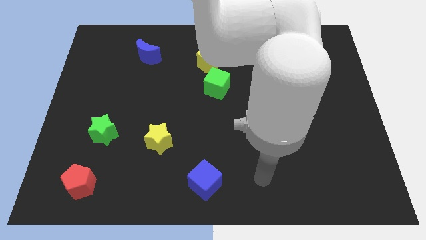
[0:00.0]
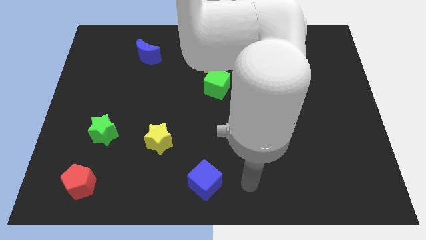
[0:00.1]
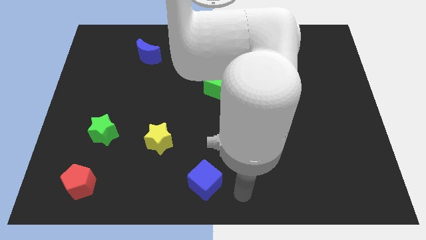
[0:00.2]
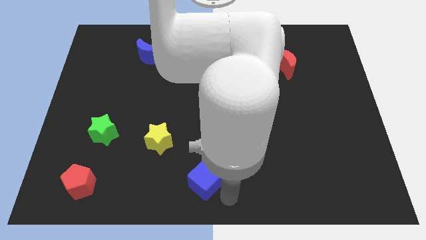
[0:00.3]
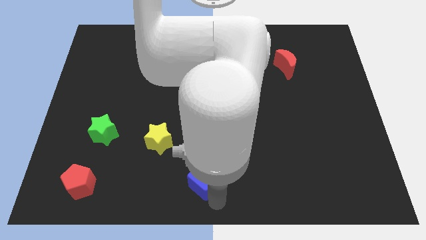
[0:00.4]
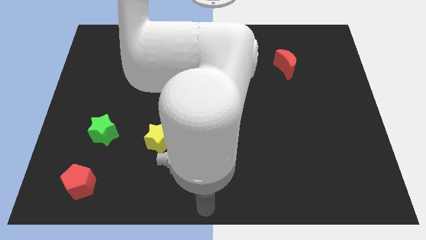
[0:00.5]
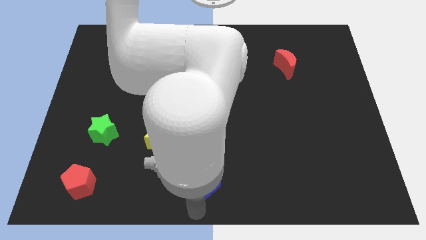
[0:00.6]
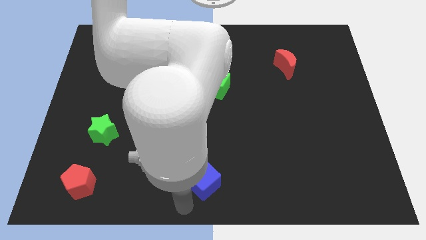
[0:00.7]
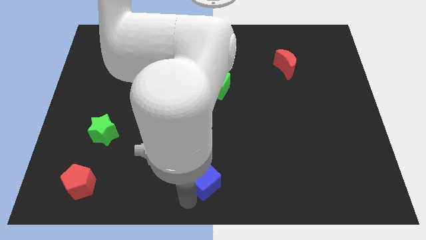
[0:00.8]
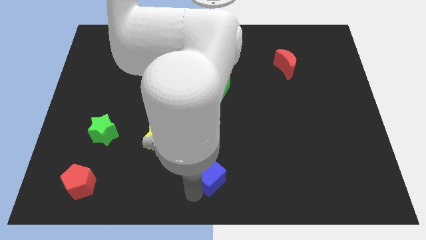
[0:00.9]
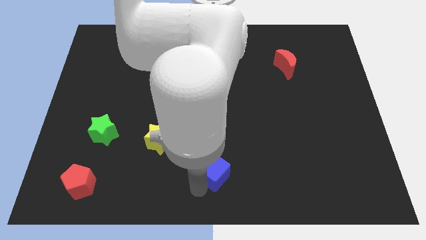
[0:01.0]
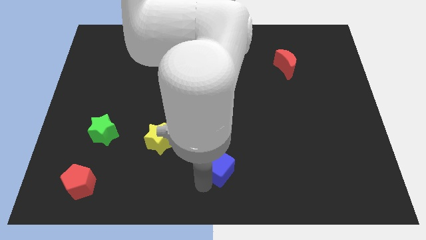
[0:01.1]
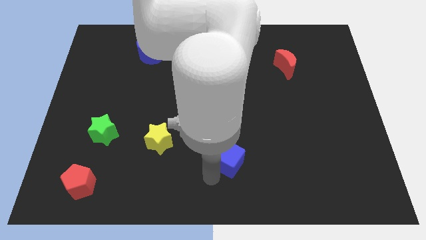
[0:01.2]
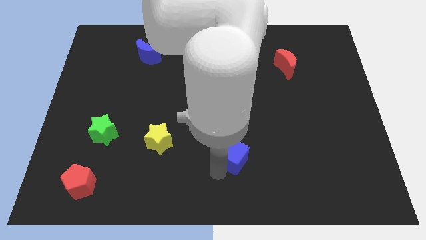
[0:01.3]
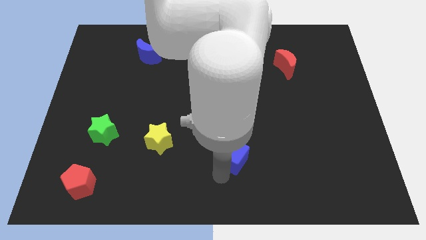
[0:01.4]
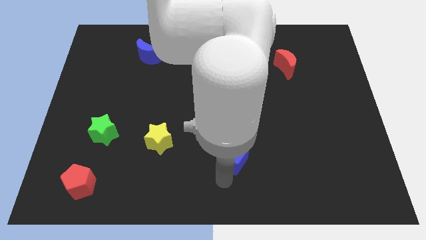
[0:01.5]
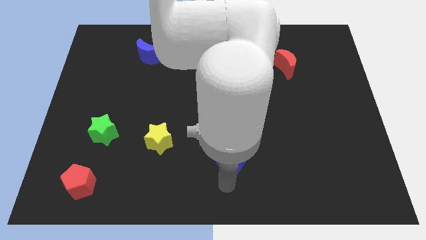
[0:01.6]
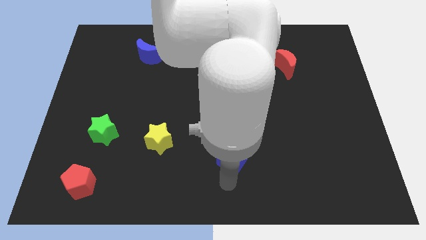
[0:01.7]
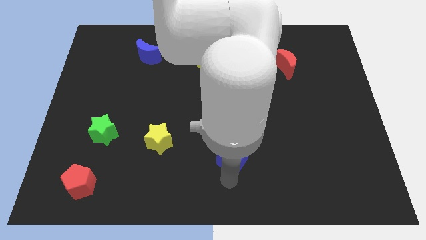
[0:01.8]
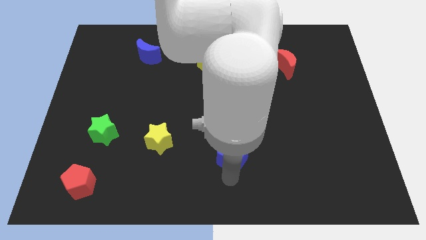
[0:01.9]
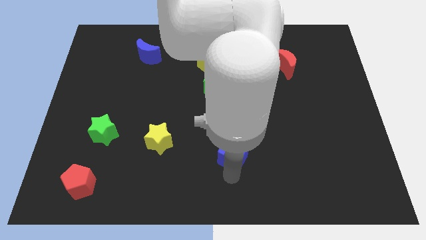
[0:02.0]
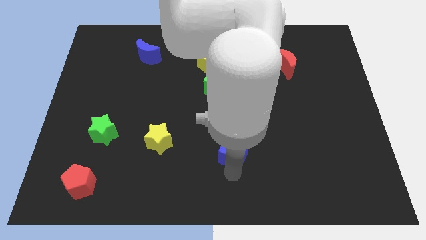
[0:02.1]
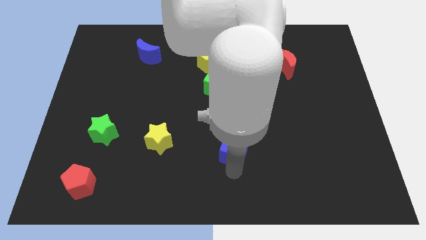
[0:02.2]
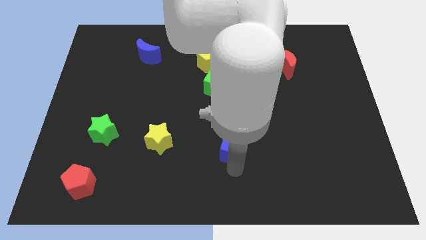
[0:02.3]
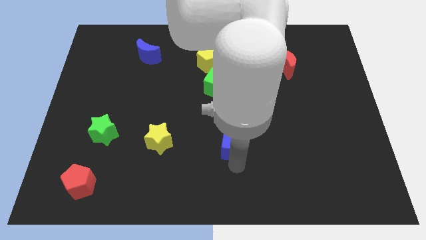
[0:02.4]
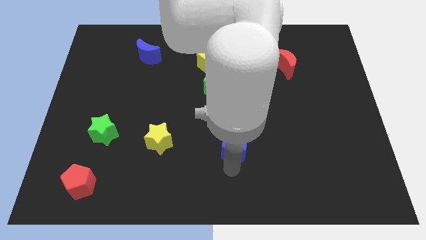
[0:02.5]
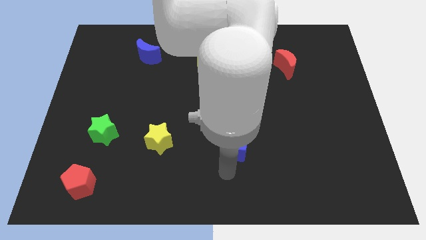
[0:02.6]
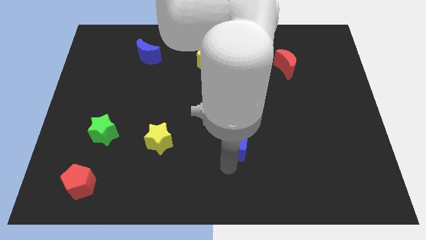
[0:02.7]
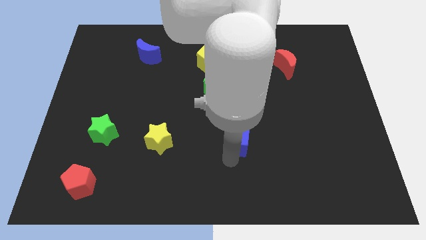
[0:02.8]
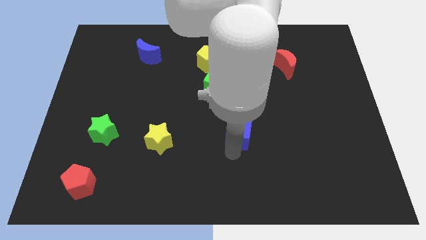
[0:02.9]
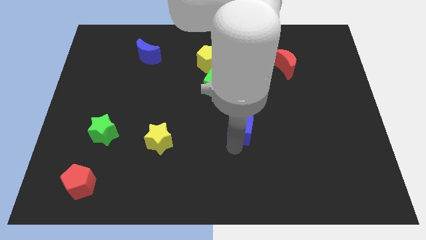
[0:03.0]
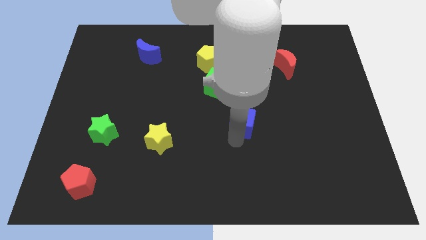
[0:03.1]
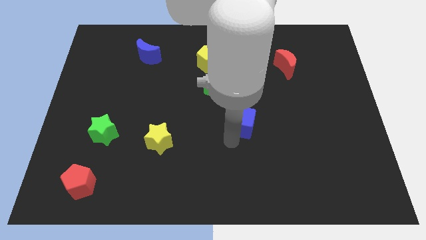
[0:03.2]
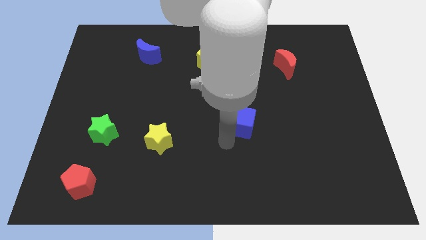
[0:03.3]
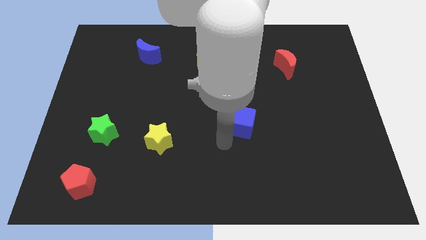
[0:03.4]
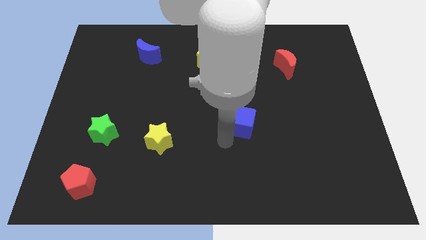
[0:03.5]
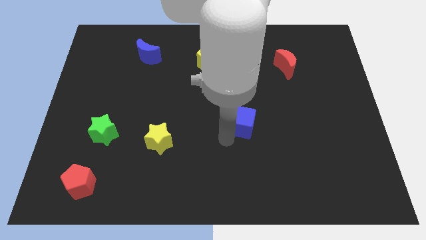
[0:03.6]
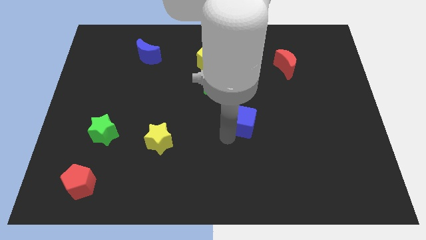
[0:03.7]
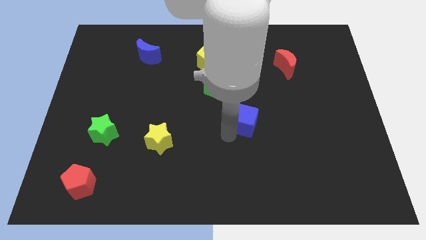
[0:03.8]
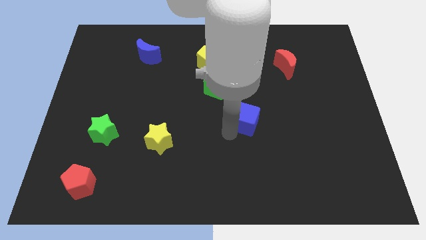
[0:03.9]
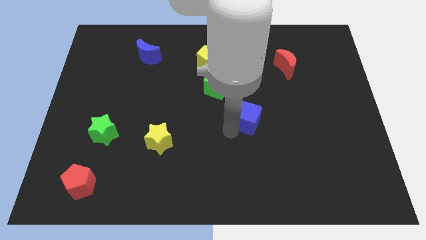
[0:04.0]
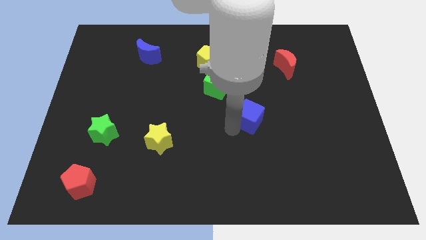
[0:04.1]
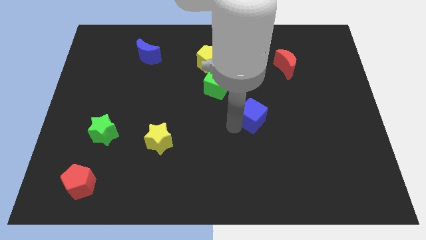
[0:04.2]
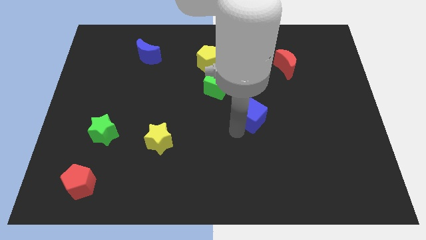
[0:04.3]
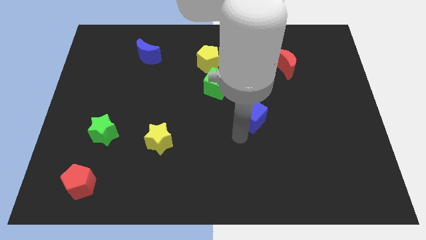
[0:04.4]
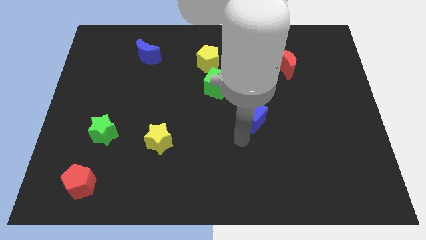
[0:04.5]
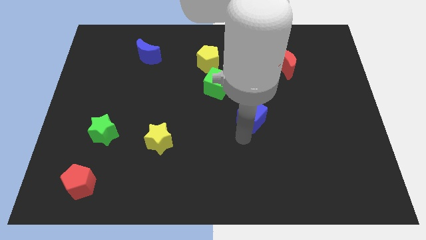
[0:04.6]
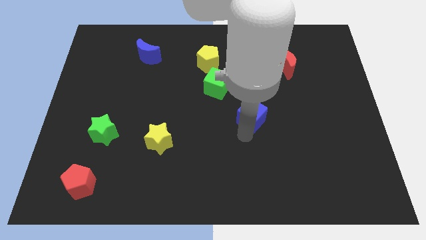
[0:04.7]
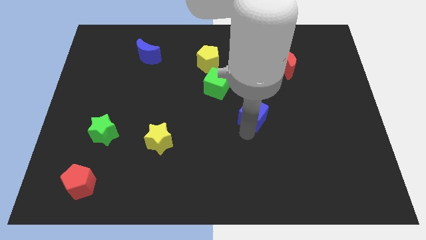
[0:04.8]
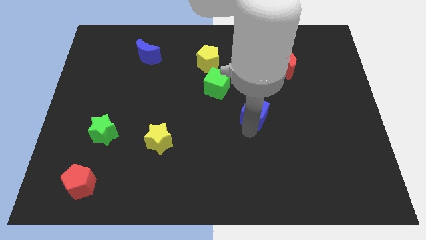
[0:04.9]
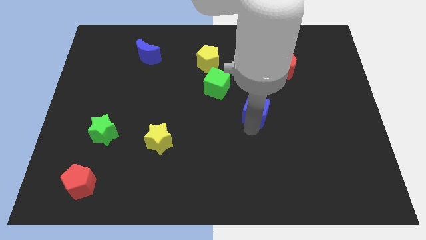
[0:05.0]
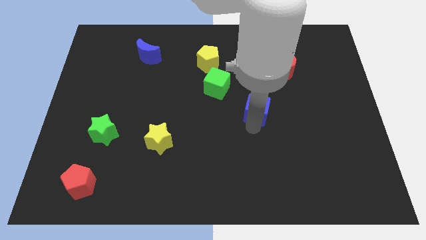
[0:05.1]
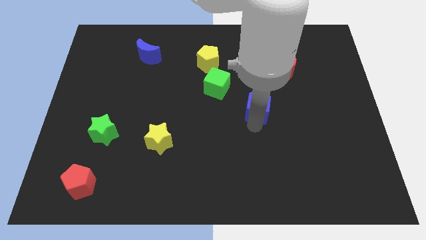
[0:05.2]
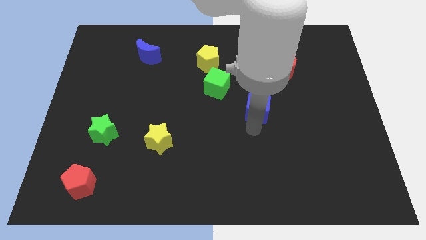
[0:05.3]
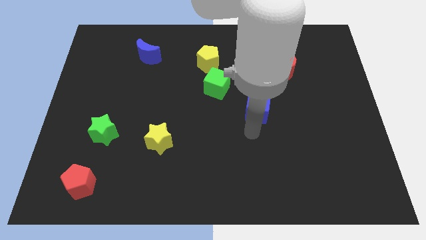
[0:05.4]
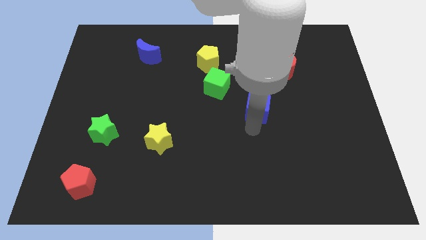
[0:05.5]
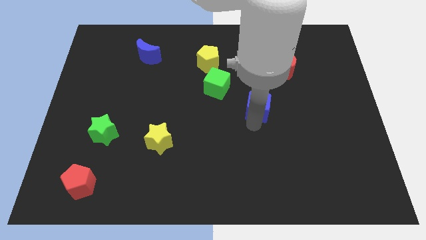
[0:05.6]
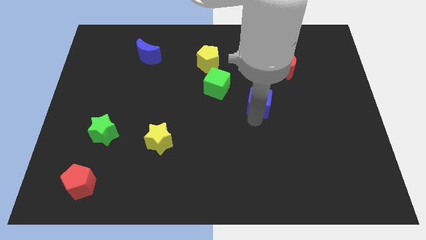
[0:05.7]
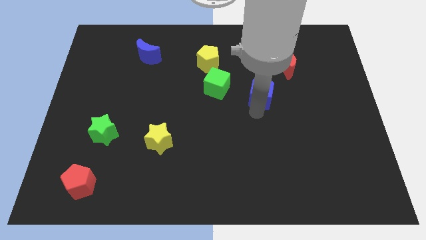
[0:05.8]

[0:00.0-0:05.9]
move the blue cube to the bottom left of the red moon

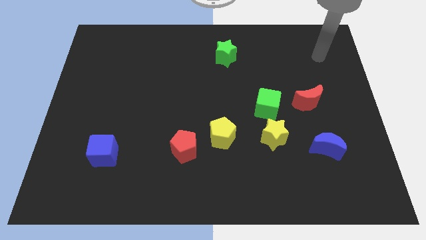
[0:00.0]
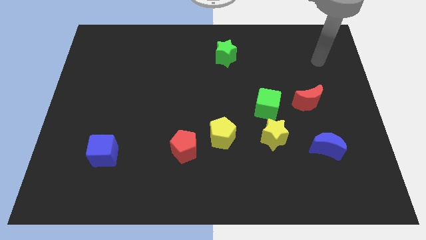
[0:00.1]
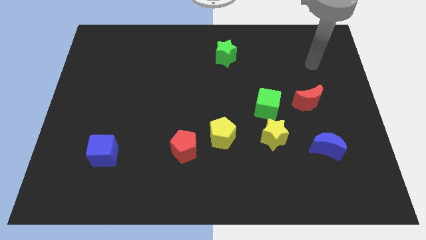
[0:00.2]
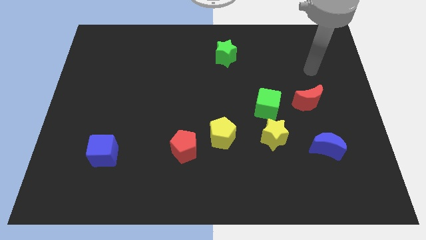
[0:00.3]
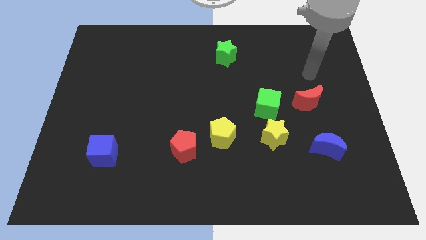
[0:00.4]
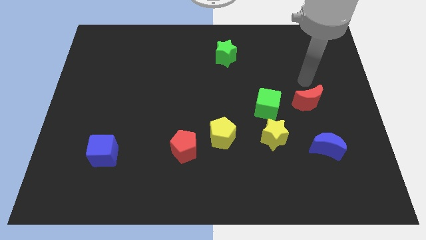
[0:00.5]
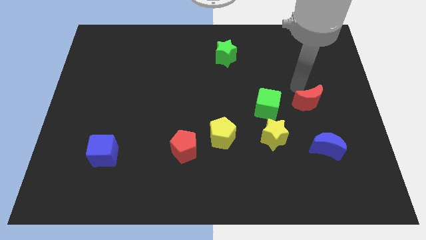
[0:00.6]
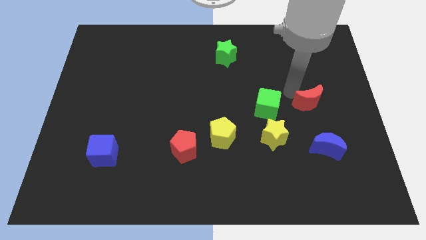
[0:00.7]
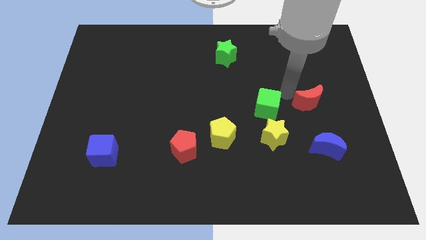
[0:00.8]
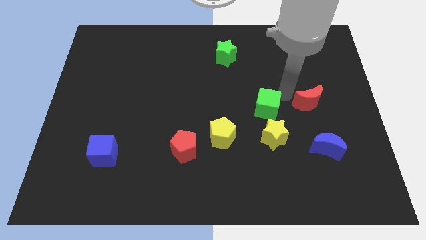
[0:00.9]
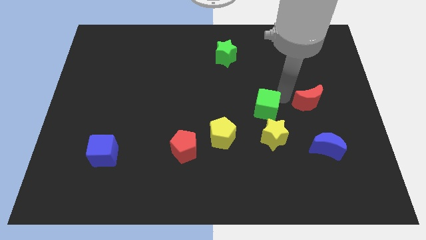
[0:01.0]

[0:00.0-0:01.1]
push the green cube to the top left side of the yellow star

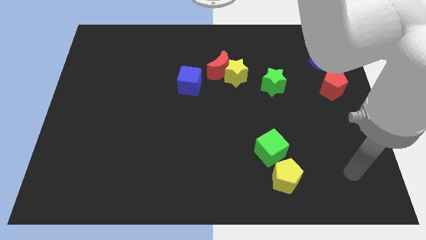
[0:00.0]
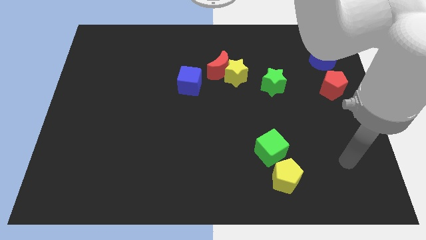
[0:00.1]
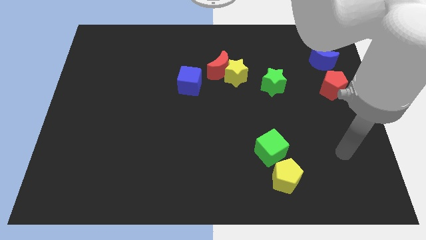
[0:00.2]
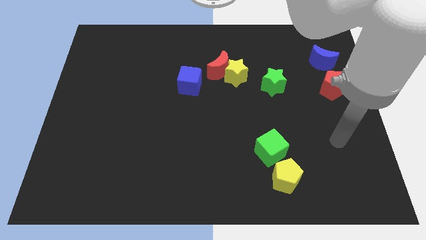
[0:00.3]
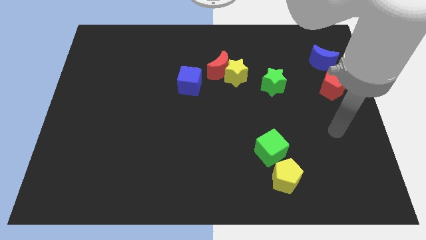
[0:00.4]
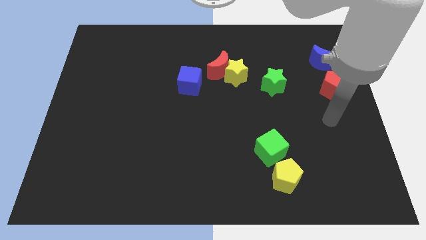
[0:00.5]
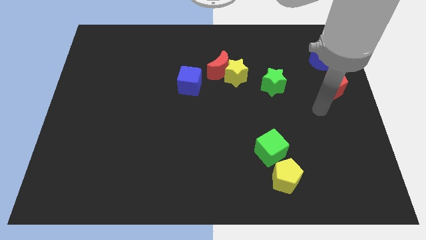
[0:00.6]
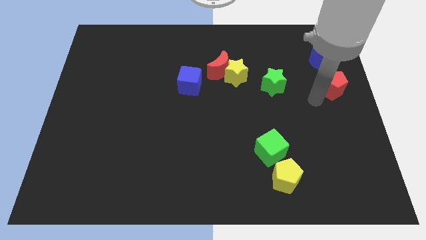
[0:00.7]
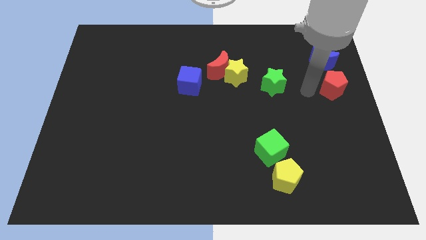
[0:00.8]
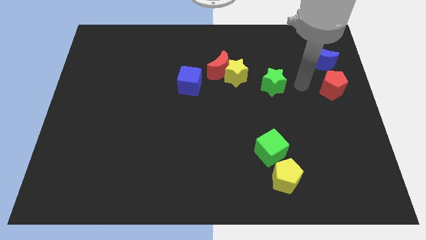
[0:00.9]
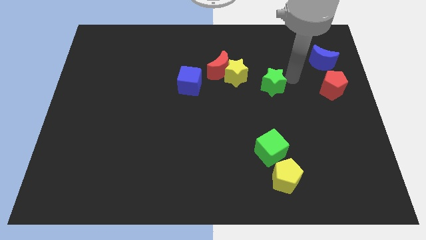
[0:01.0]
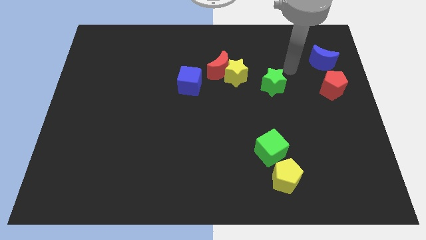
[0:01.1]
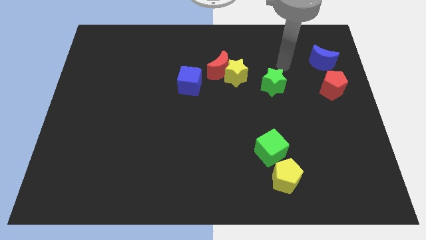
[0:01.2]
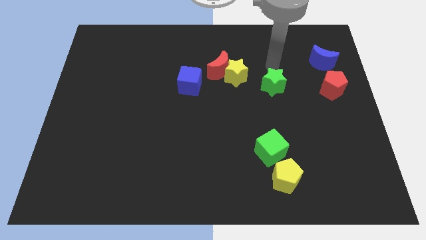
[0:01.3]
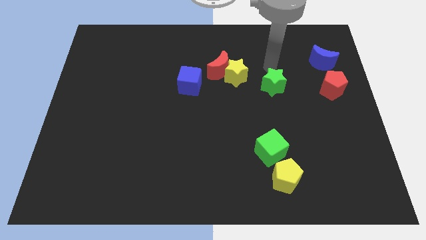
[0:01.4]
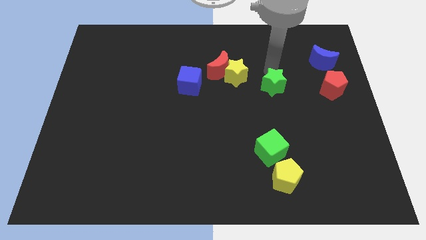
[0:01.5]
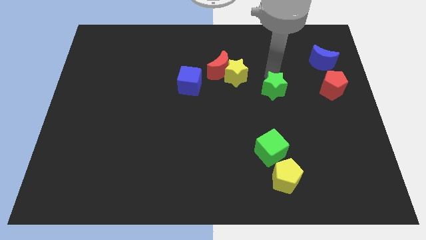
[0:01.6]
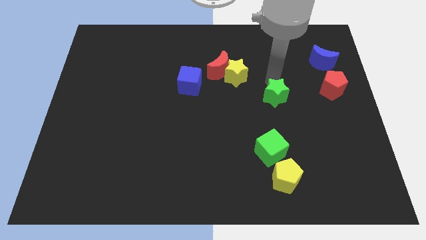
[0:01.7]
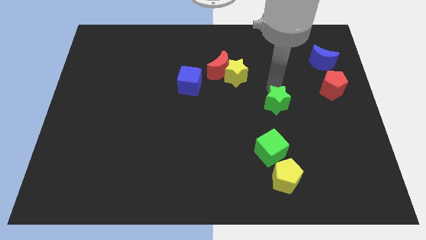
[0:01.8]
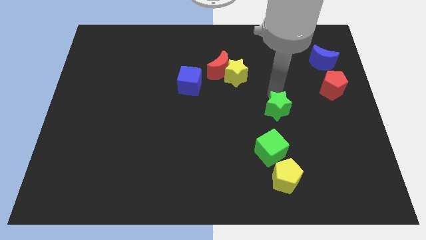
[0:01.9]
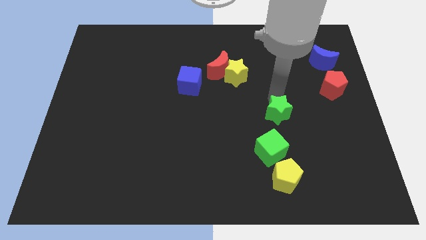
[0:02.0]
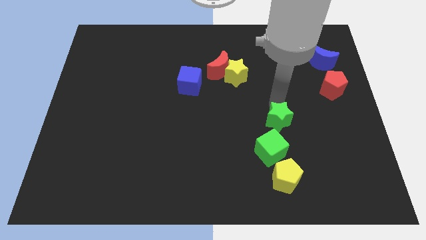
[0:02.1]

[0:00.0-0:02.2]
push the green star to the top side of the yellow pentagon
